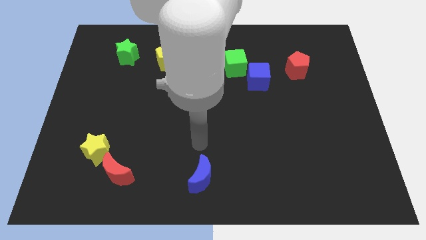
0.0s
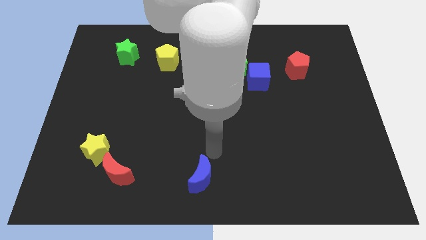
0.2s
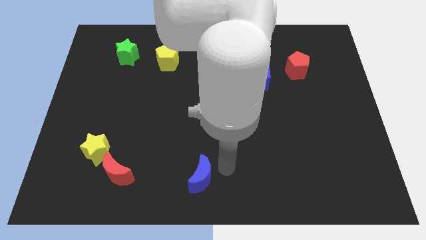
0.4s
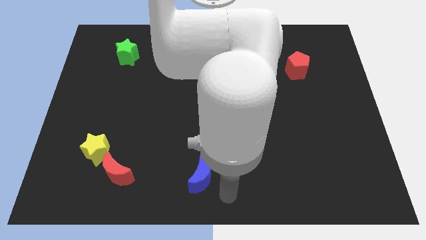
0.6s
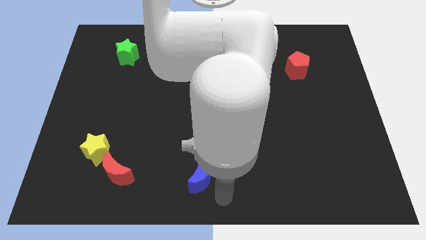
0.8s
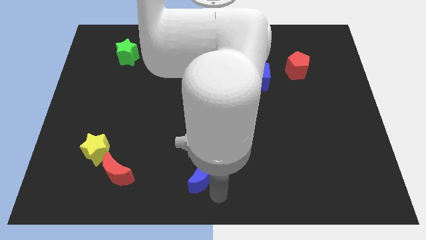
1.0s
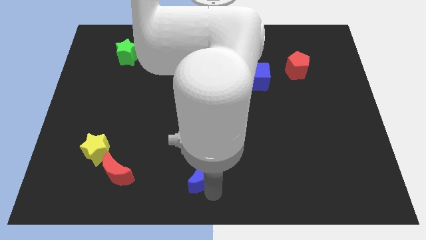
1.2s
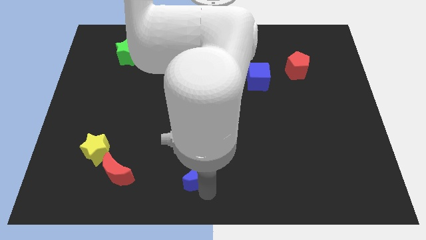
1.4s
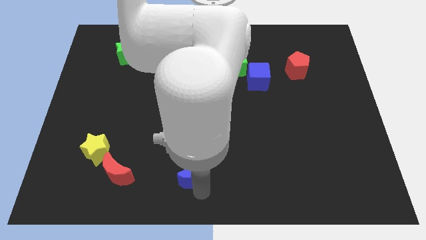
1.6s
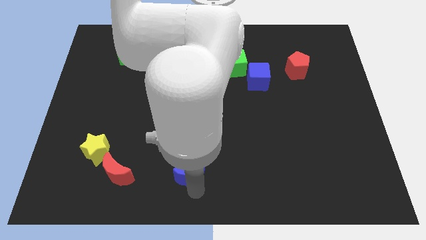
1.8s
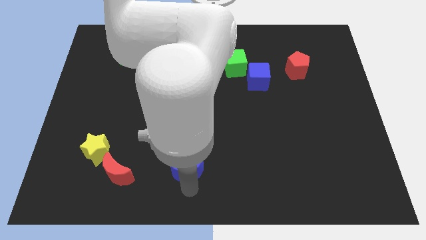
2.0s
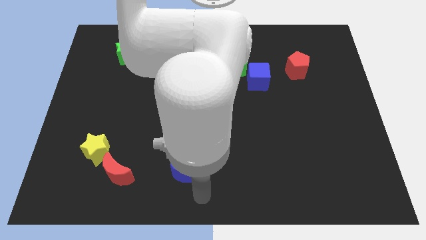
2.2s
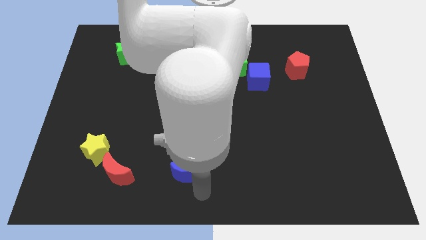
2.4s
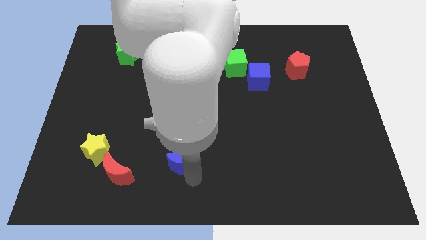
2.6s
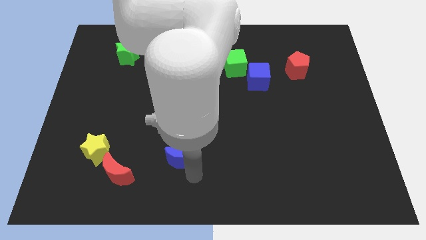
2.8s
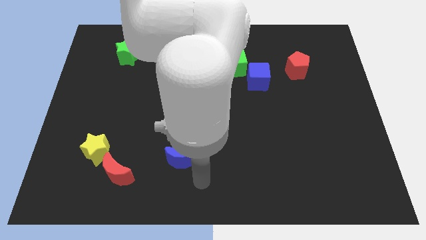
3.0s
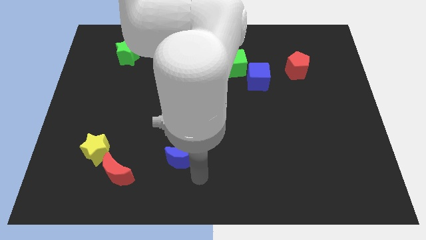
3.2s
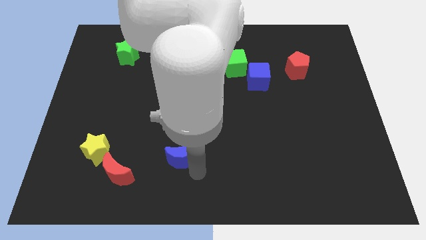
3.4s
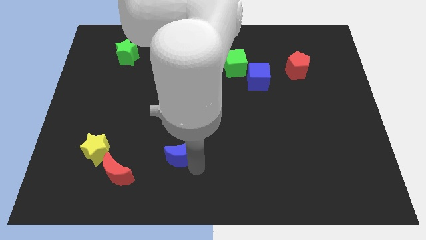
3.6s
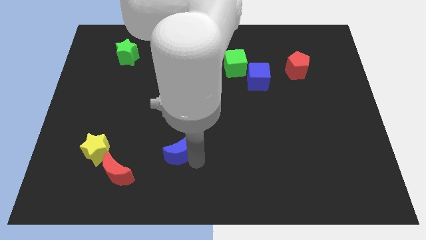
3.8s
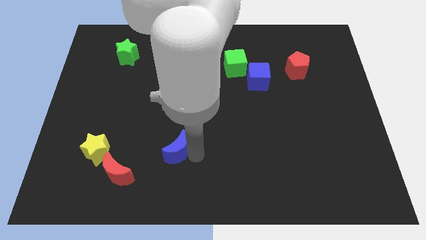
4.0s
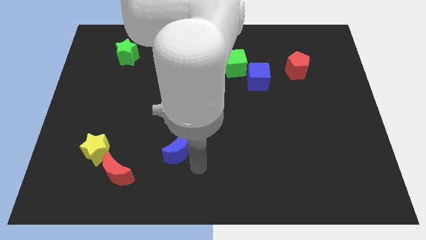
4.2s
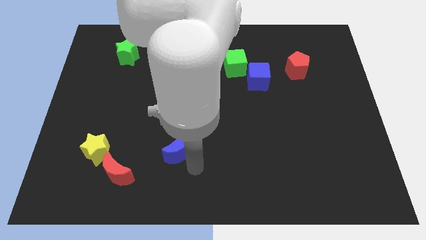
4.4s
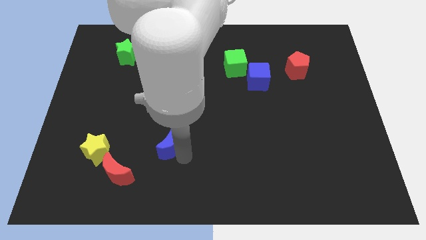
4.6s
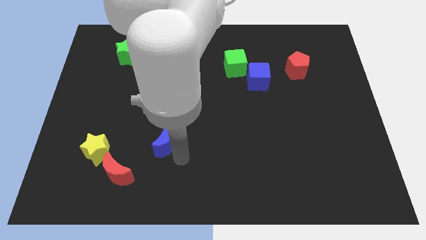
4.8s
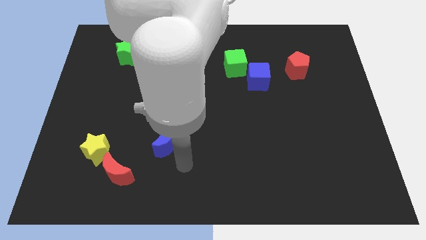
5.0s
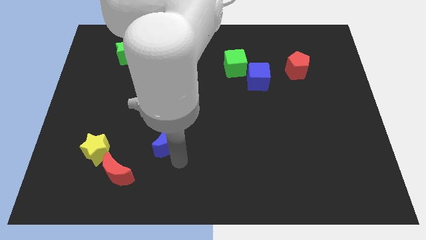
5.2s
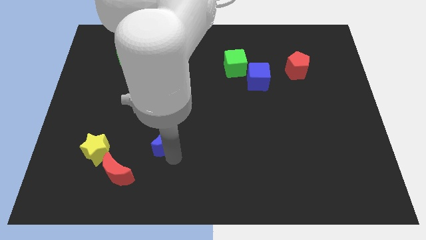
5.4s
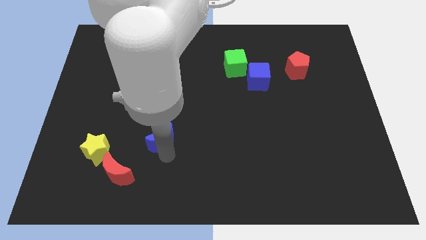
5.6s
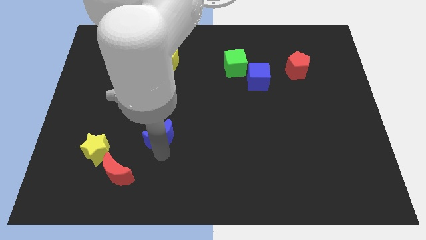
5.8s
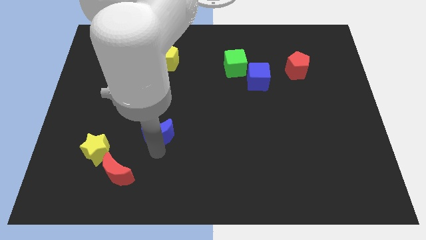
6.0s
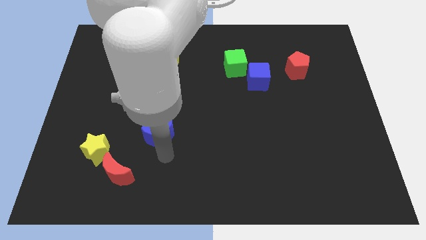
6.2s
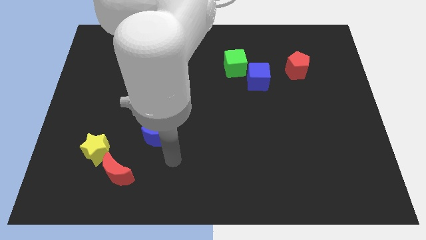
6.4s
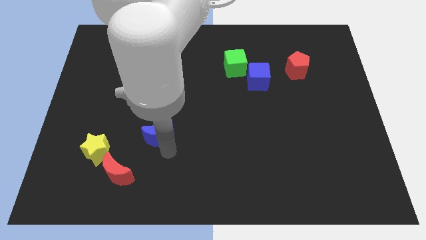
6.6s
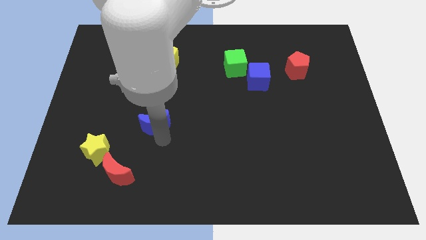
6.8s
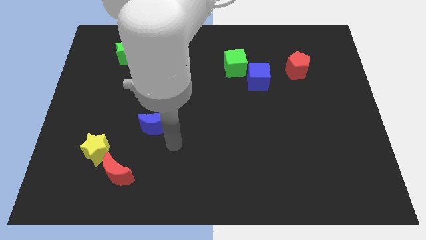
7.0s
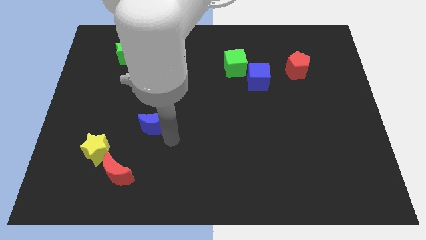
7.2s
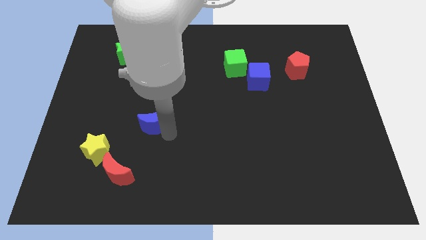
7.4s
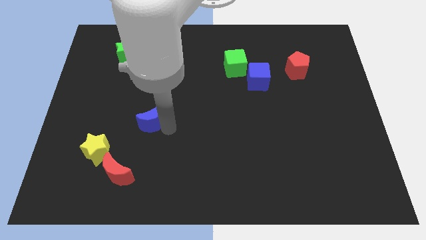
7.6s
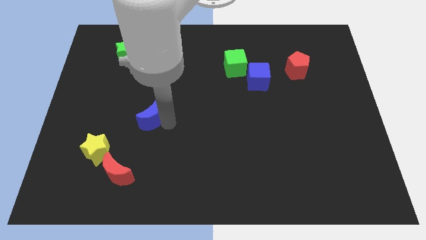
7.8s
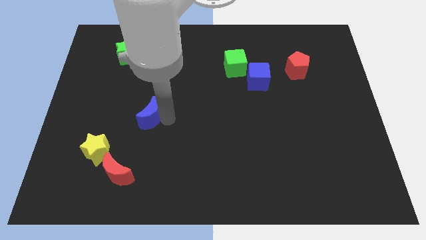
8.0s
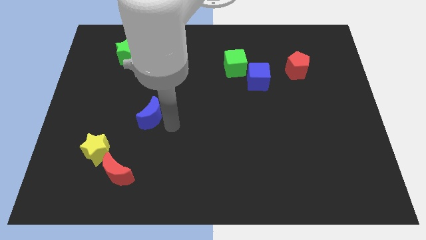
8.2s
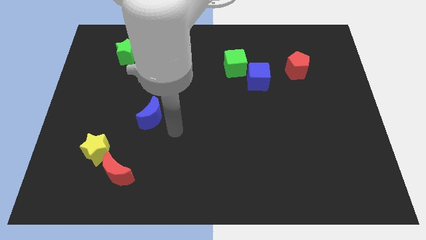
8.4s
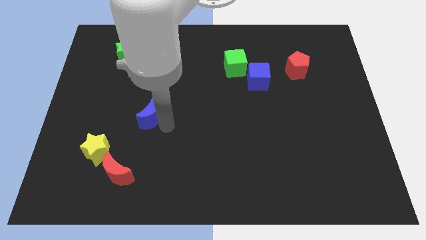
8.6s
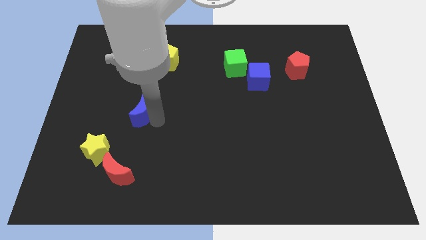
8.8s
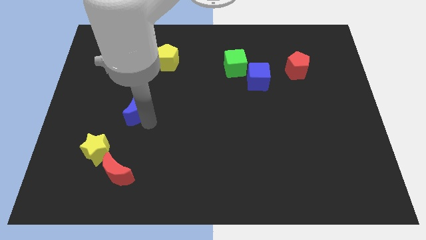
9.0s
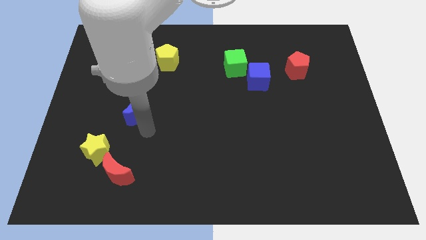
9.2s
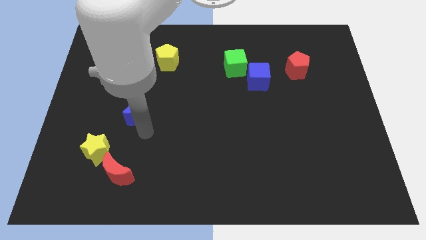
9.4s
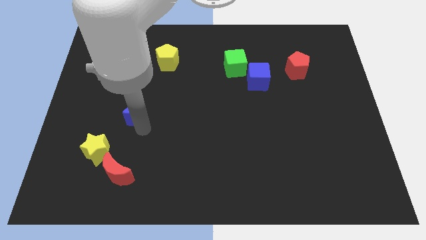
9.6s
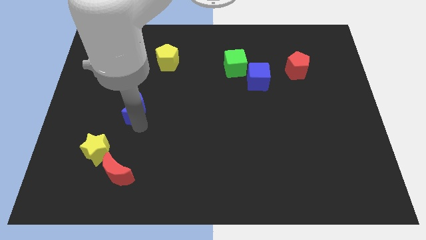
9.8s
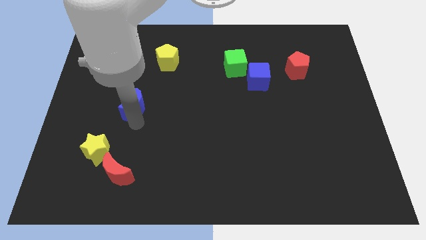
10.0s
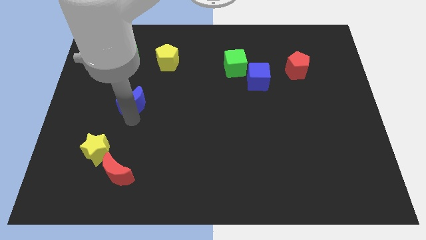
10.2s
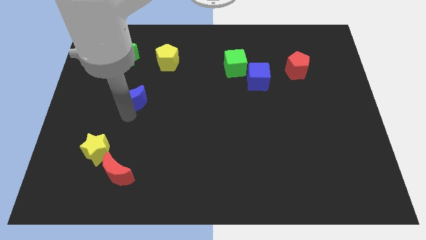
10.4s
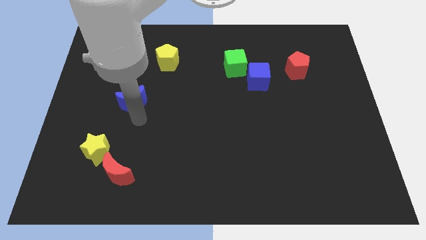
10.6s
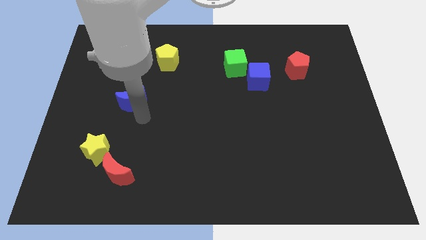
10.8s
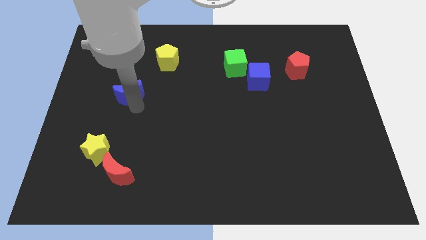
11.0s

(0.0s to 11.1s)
put the blue moon below the green star

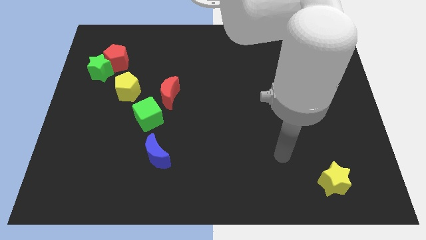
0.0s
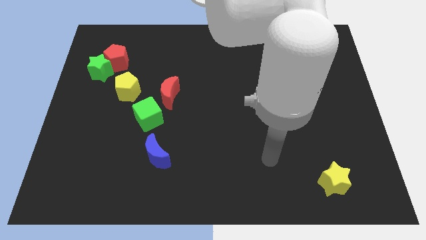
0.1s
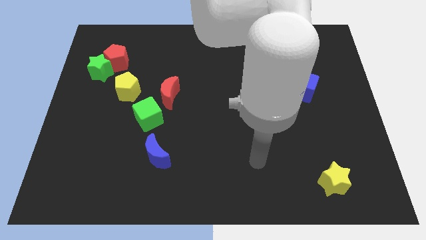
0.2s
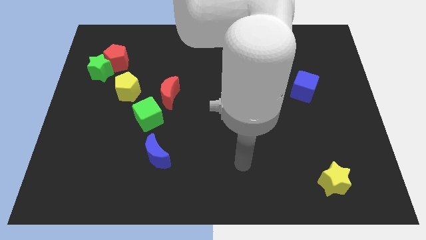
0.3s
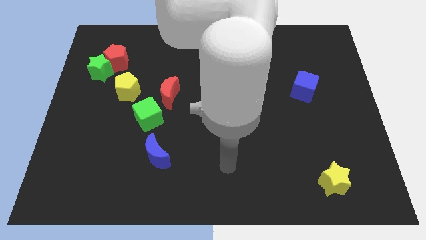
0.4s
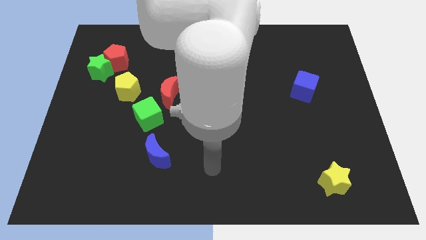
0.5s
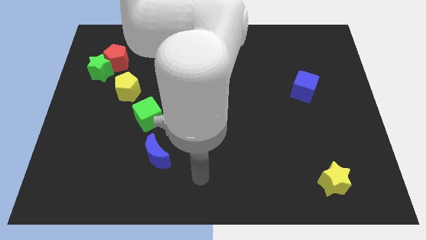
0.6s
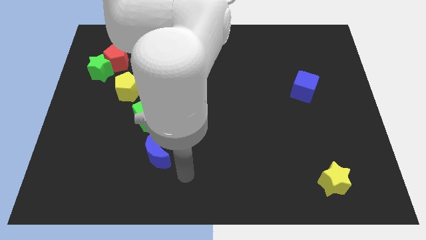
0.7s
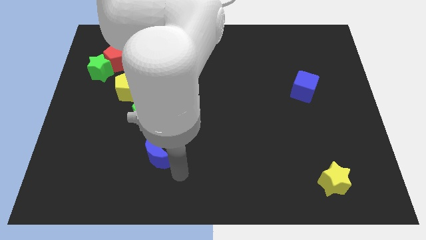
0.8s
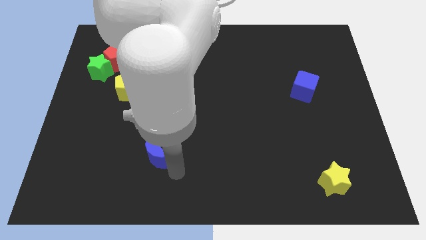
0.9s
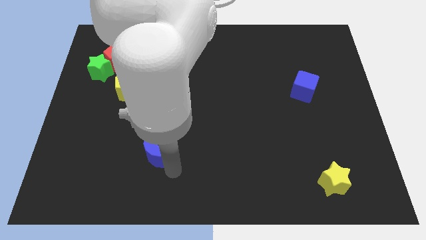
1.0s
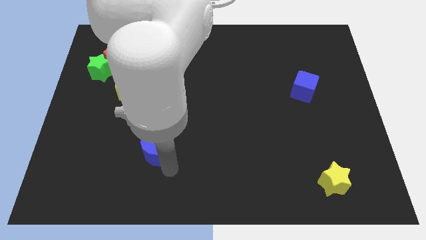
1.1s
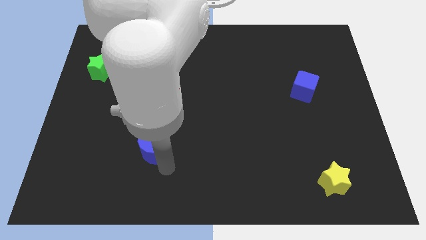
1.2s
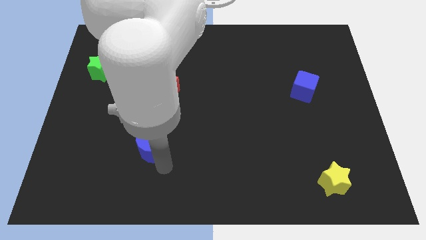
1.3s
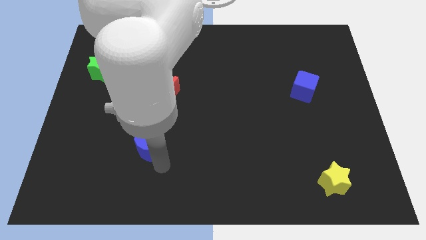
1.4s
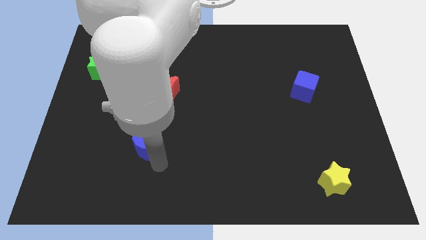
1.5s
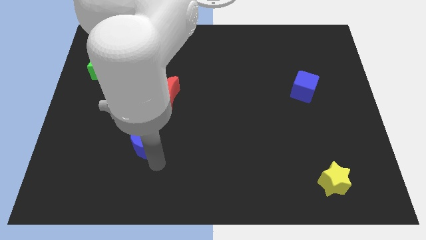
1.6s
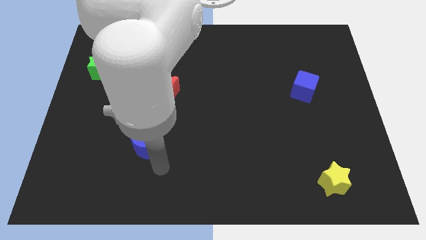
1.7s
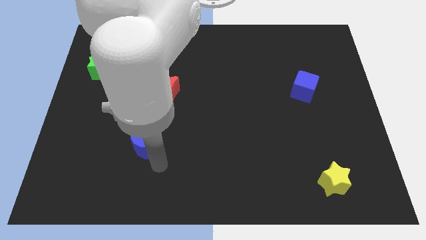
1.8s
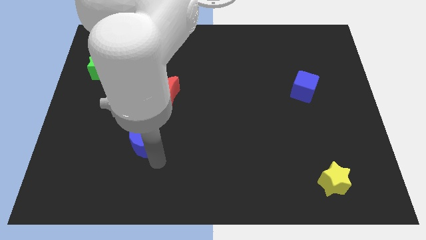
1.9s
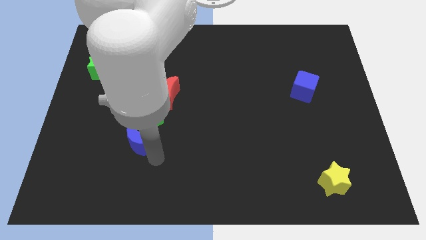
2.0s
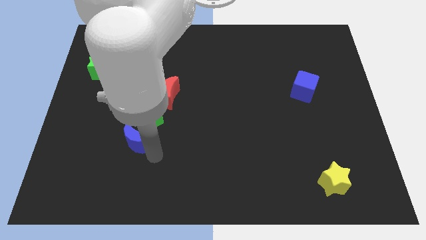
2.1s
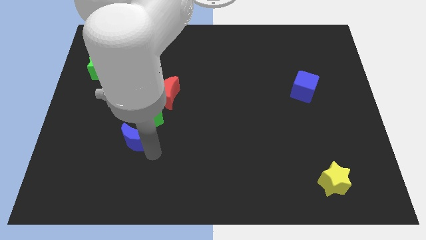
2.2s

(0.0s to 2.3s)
move the blue moon to the bottom of the yellow pentagon
